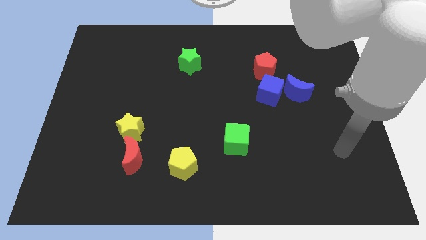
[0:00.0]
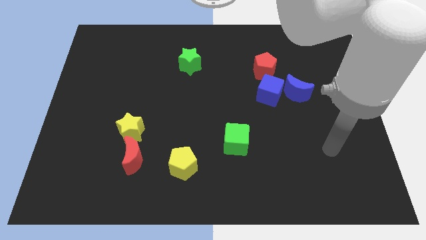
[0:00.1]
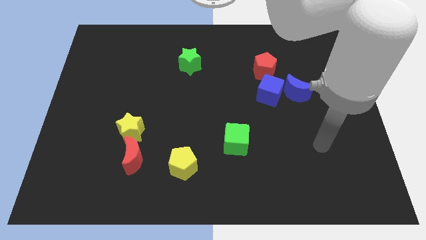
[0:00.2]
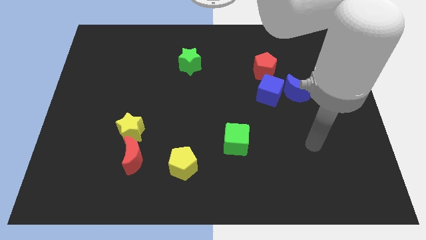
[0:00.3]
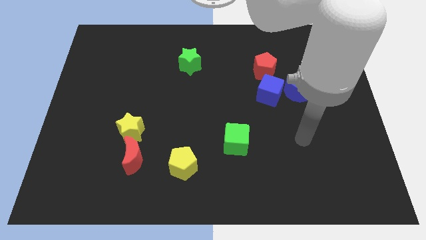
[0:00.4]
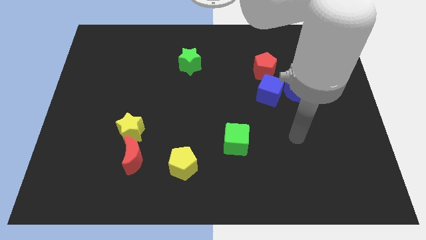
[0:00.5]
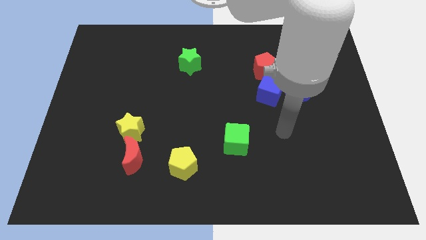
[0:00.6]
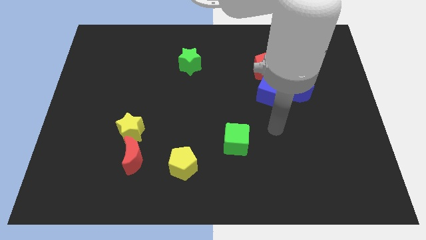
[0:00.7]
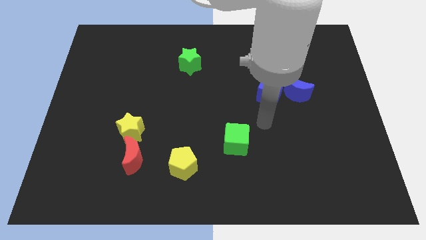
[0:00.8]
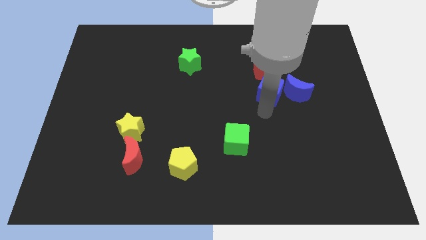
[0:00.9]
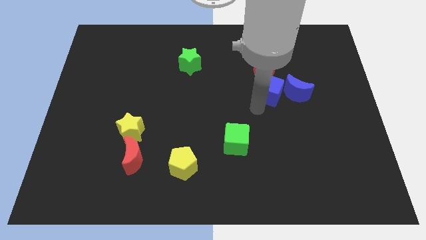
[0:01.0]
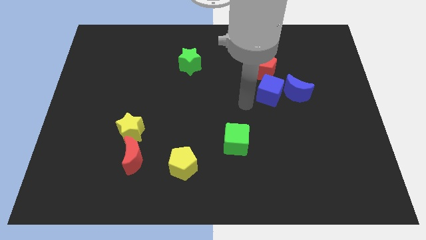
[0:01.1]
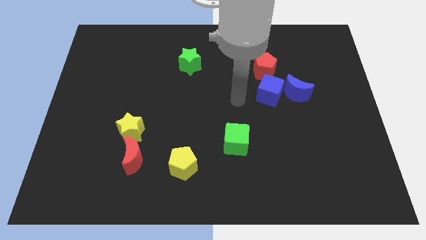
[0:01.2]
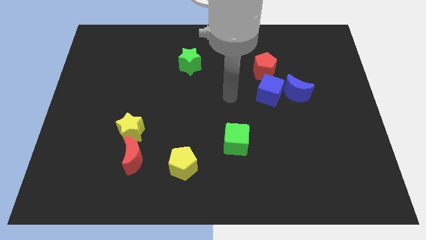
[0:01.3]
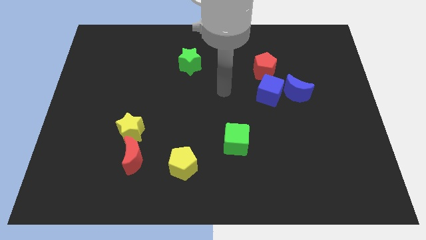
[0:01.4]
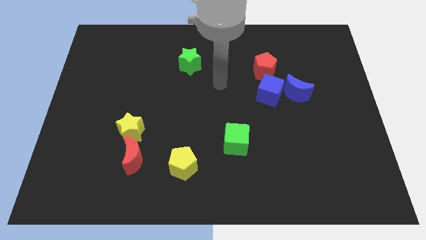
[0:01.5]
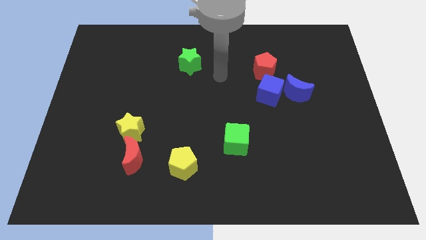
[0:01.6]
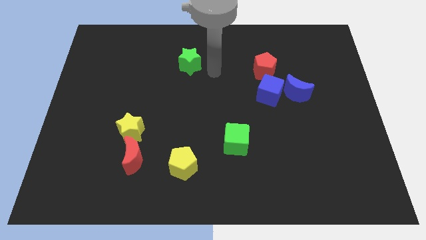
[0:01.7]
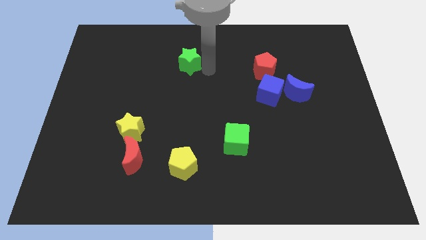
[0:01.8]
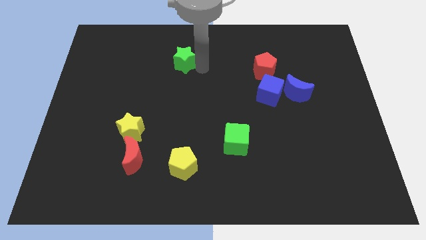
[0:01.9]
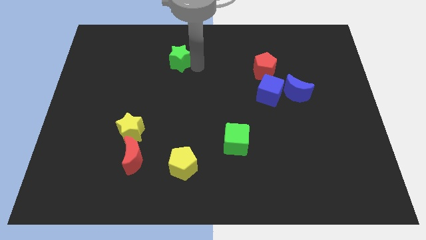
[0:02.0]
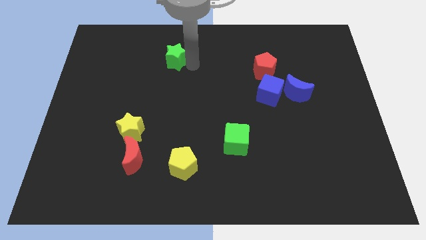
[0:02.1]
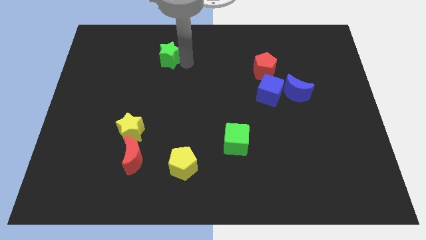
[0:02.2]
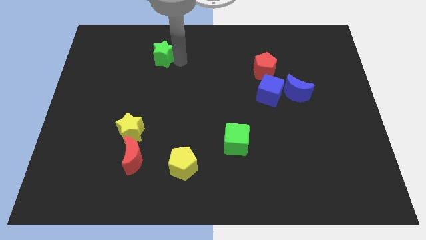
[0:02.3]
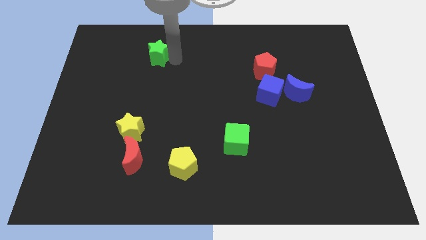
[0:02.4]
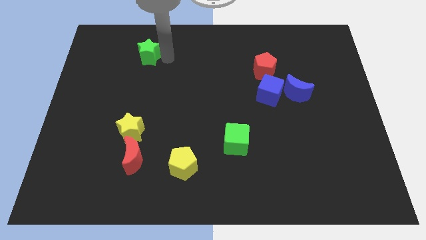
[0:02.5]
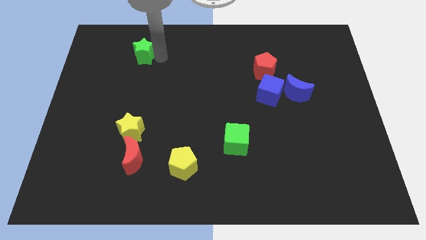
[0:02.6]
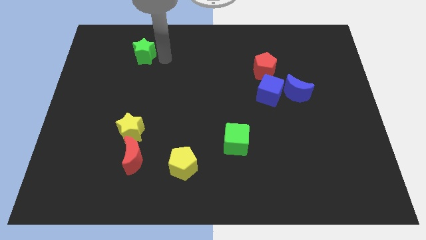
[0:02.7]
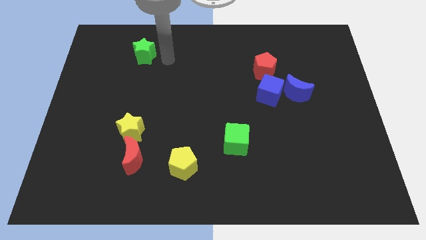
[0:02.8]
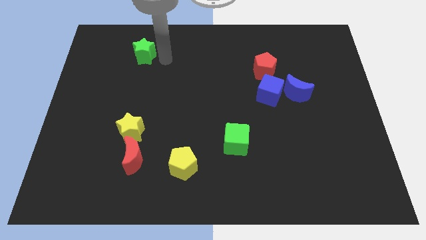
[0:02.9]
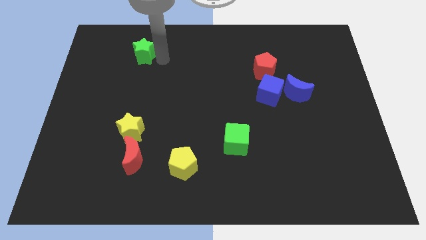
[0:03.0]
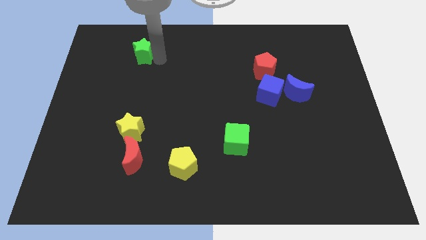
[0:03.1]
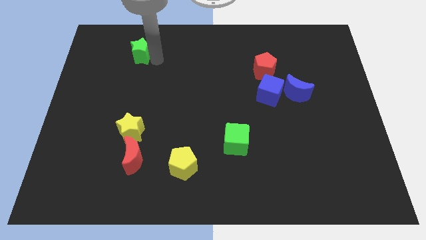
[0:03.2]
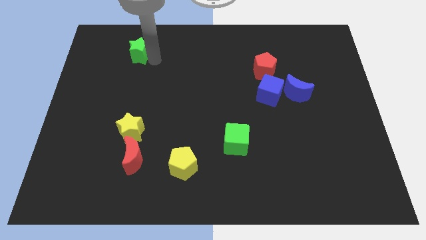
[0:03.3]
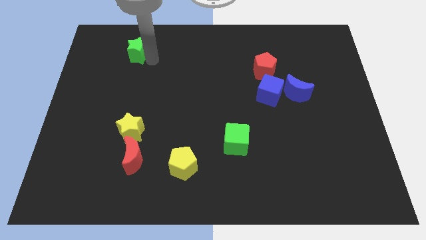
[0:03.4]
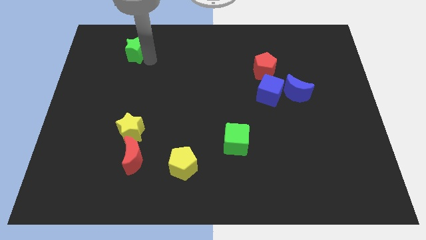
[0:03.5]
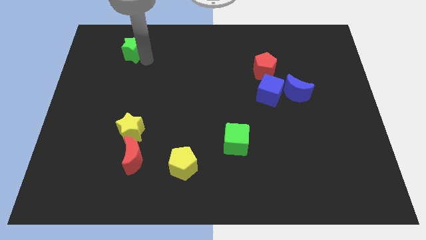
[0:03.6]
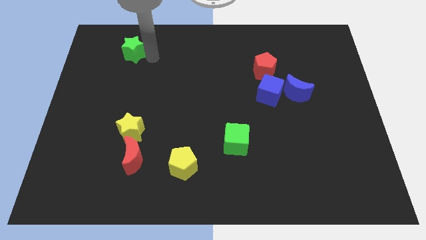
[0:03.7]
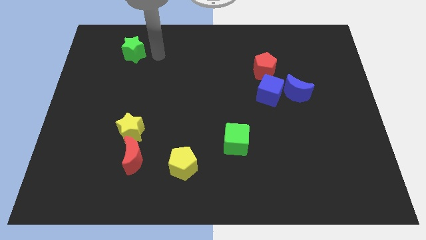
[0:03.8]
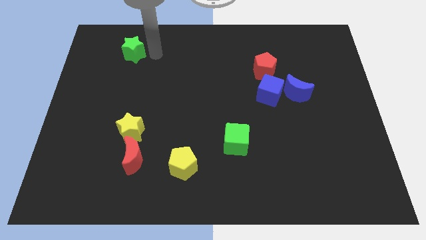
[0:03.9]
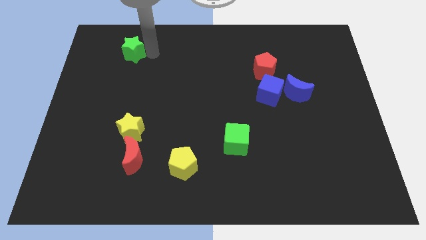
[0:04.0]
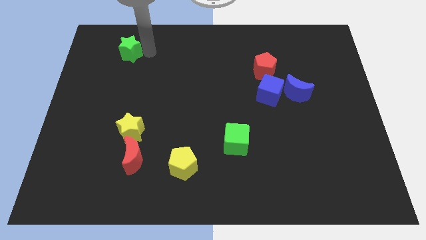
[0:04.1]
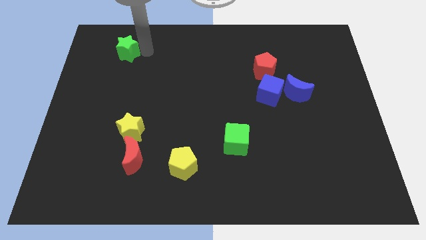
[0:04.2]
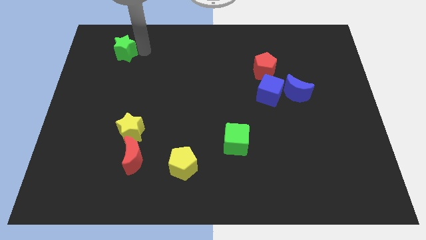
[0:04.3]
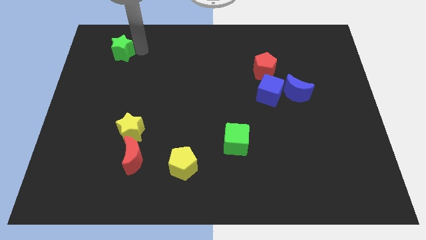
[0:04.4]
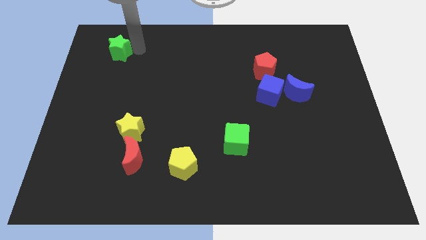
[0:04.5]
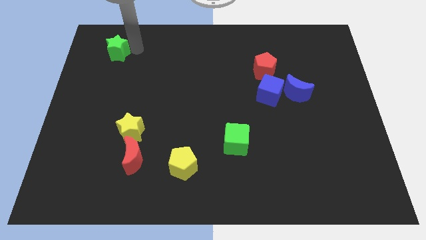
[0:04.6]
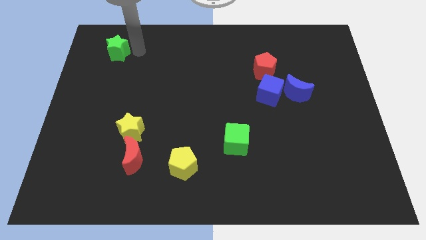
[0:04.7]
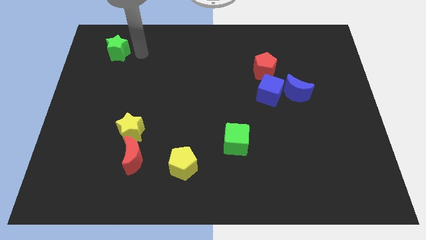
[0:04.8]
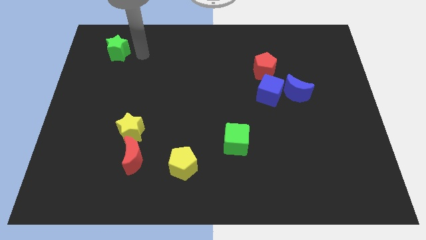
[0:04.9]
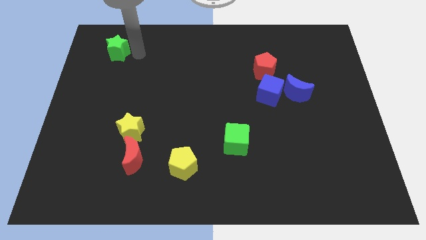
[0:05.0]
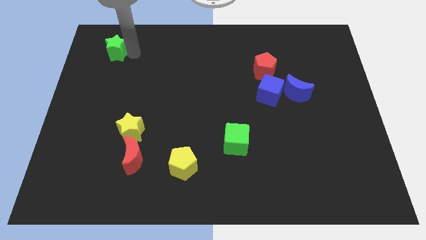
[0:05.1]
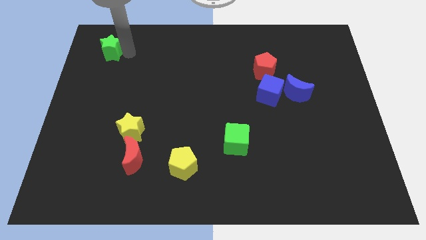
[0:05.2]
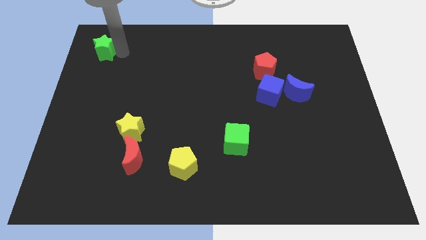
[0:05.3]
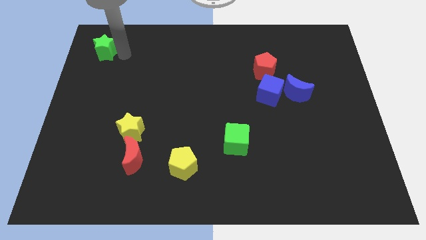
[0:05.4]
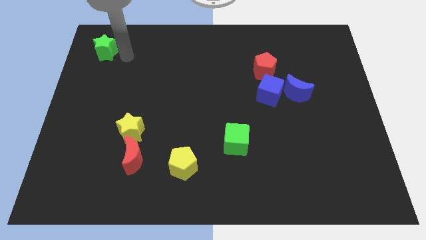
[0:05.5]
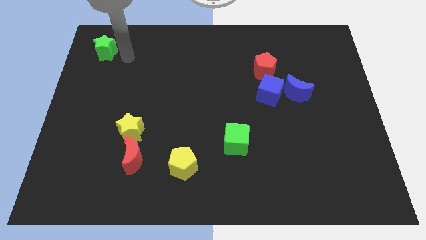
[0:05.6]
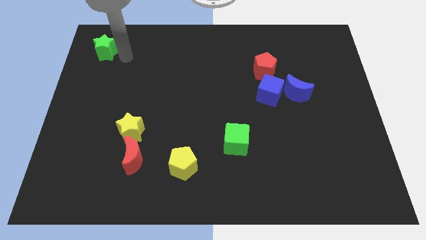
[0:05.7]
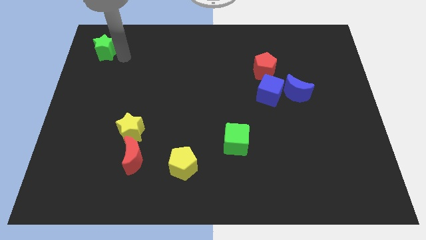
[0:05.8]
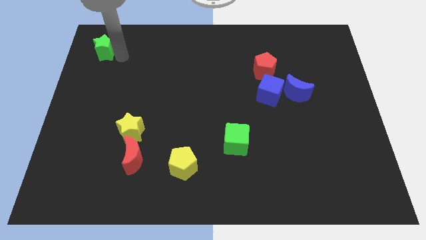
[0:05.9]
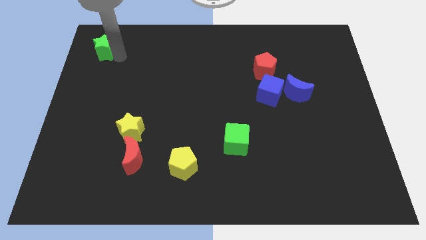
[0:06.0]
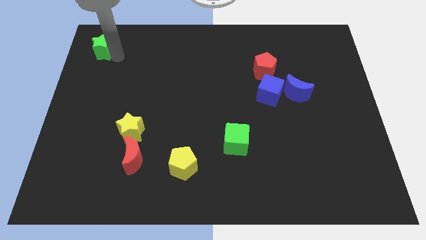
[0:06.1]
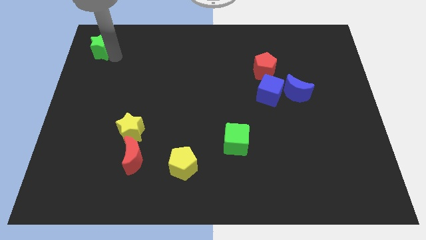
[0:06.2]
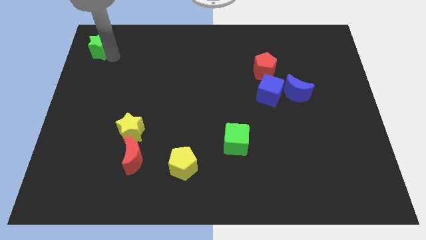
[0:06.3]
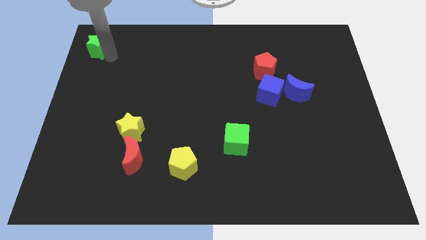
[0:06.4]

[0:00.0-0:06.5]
move the green star to the top left of the board

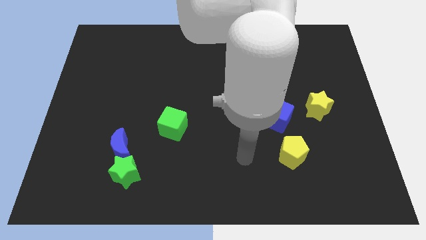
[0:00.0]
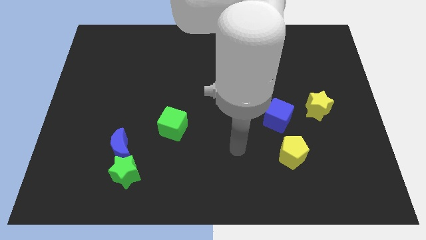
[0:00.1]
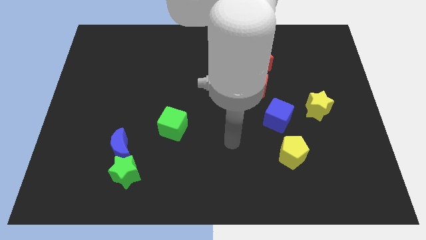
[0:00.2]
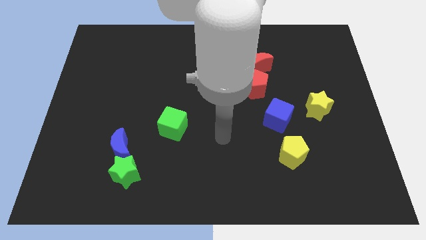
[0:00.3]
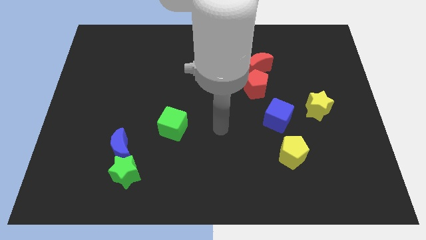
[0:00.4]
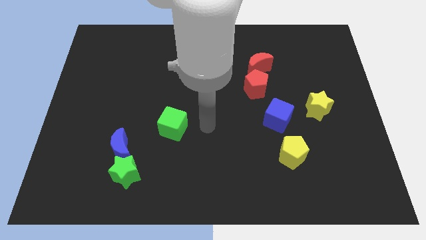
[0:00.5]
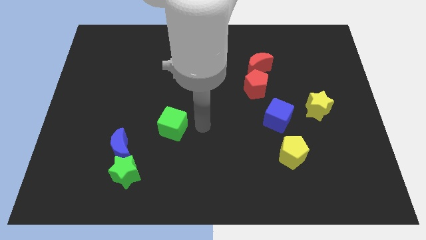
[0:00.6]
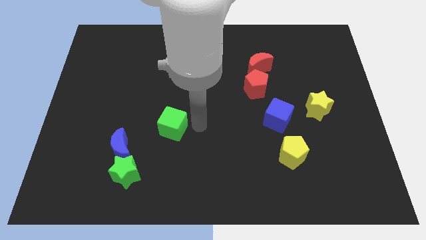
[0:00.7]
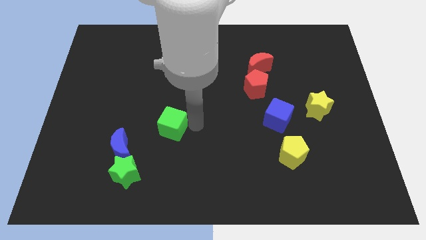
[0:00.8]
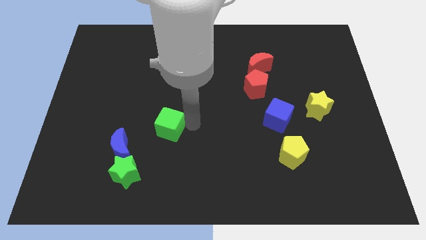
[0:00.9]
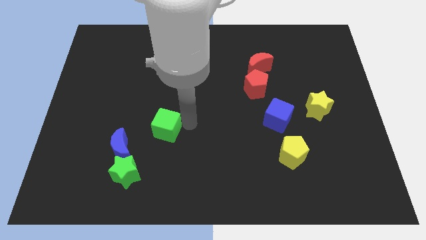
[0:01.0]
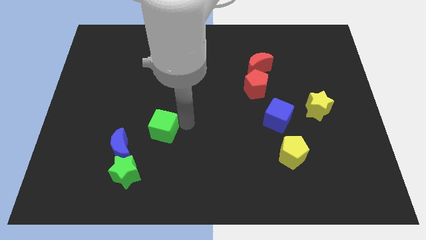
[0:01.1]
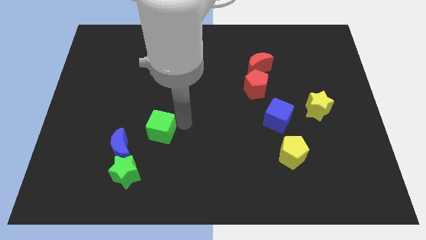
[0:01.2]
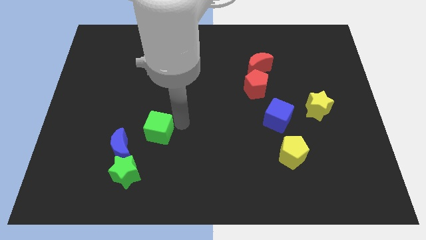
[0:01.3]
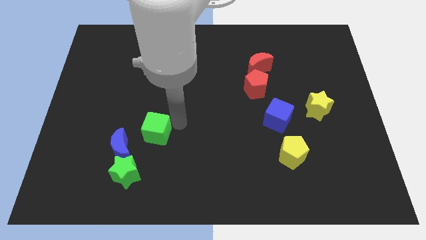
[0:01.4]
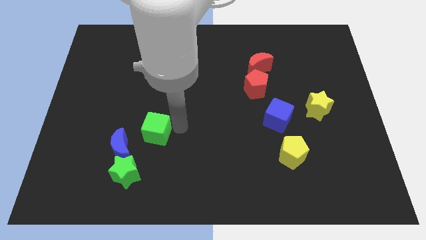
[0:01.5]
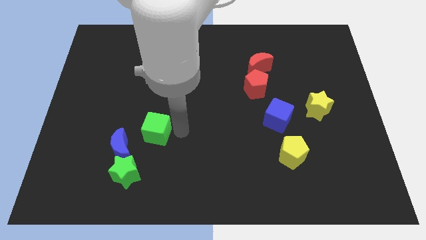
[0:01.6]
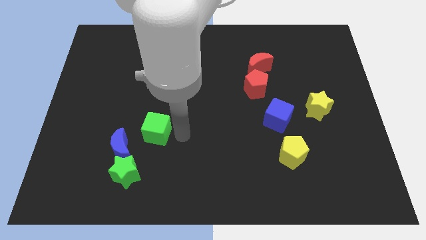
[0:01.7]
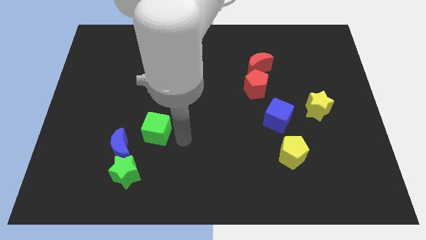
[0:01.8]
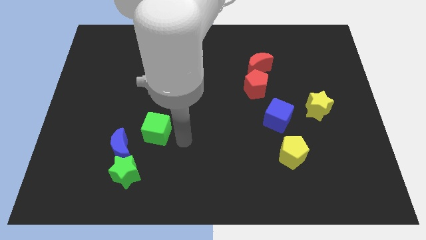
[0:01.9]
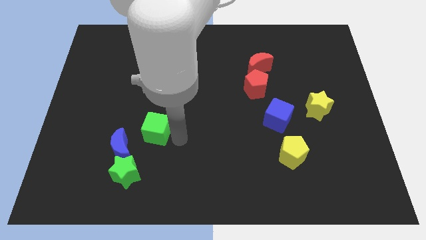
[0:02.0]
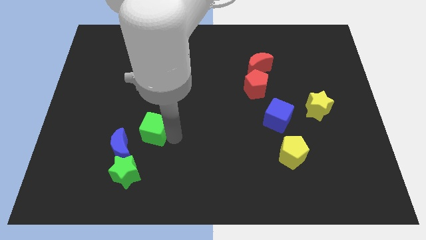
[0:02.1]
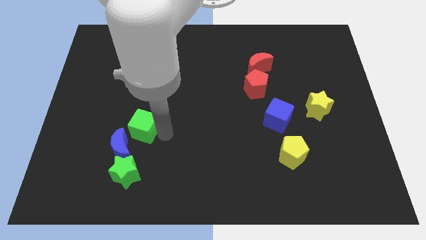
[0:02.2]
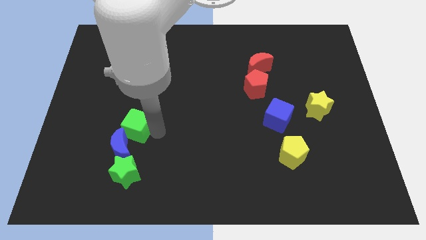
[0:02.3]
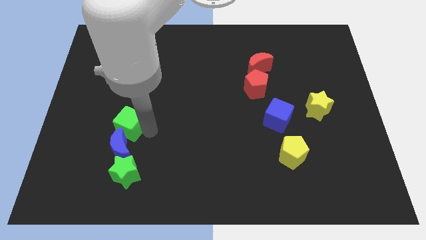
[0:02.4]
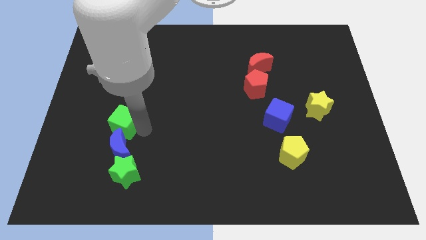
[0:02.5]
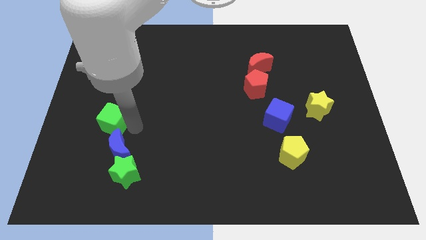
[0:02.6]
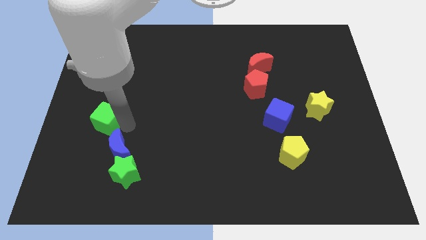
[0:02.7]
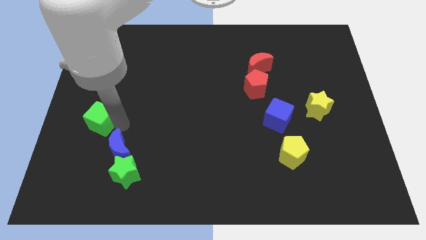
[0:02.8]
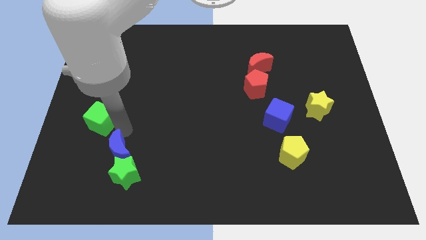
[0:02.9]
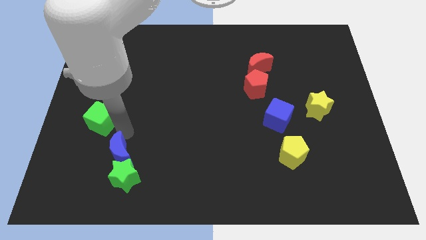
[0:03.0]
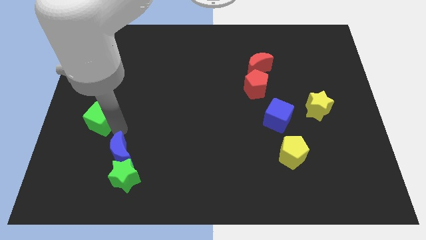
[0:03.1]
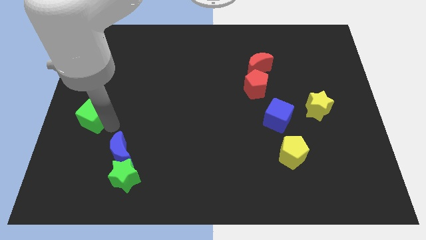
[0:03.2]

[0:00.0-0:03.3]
slide the green cube to the left side
